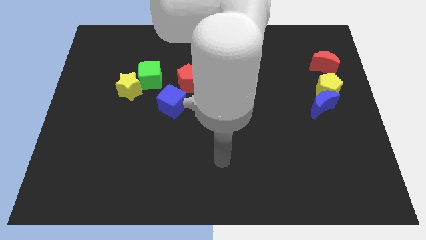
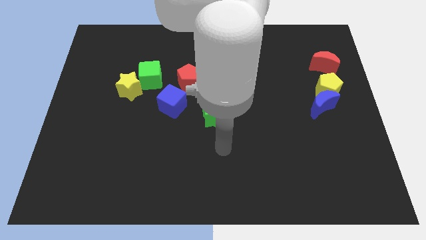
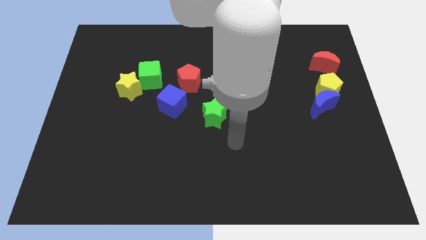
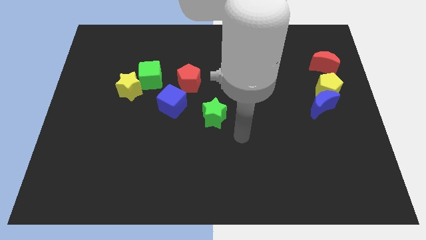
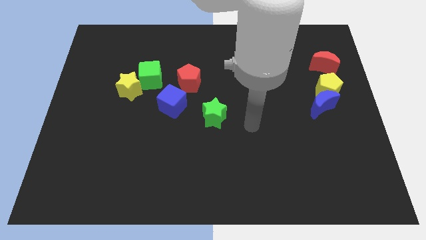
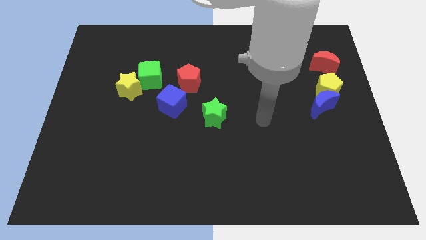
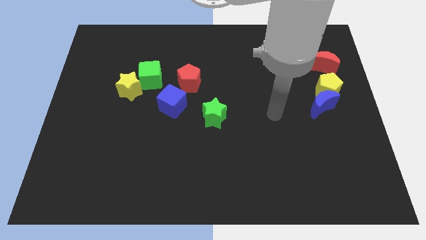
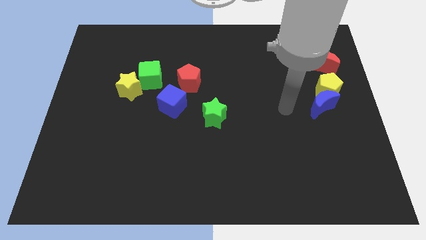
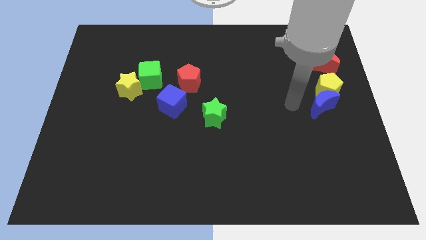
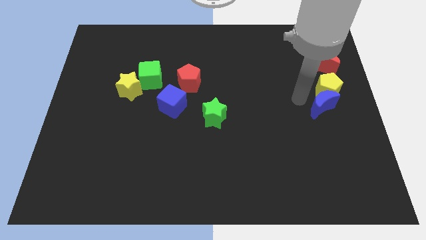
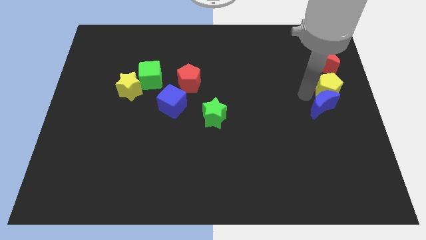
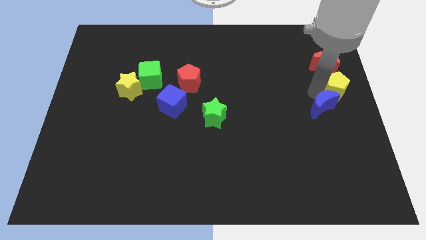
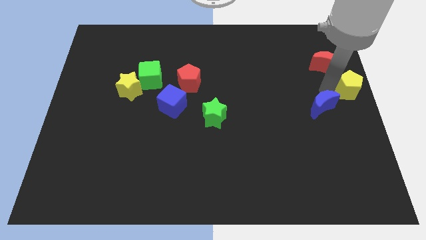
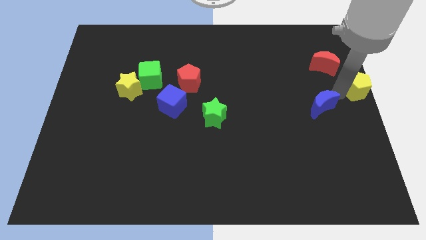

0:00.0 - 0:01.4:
separate the blue moon from the yellow pentagon

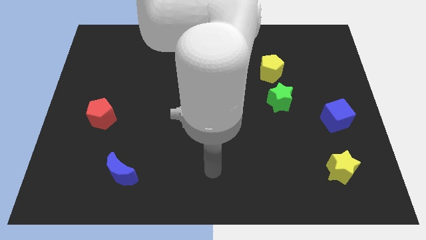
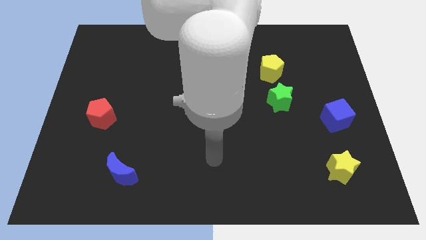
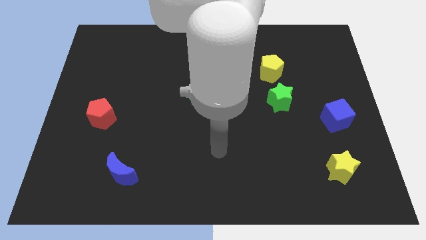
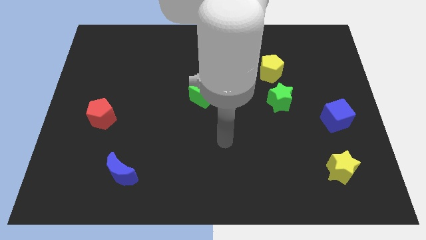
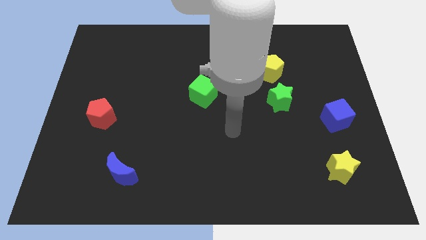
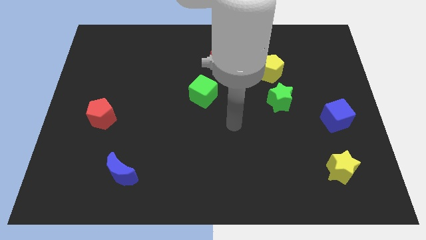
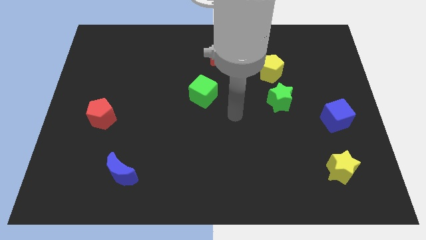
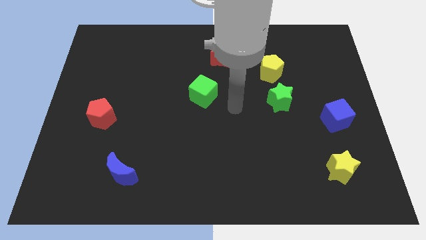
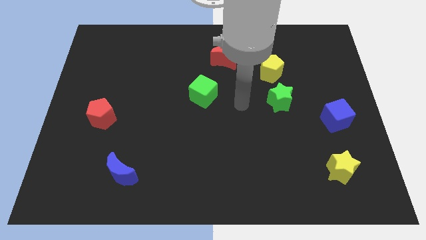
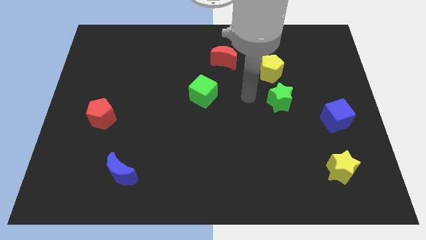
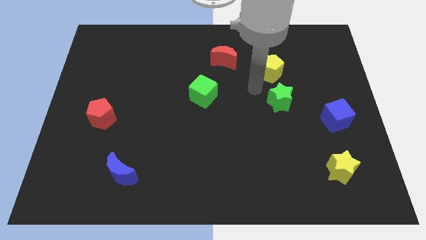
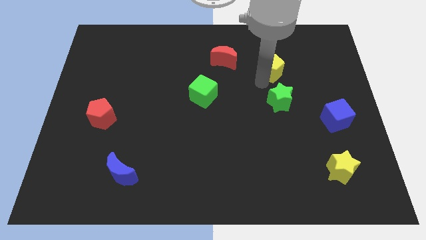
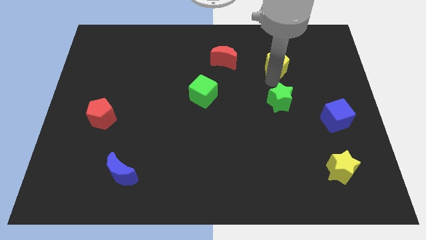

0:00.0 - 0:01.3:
pull the green star apart from the yellow pentagon

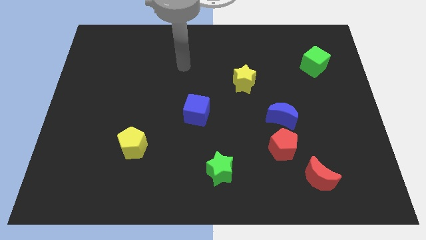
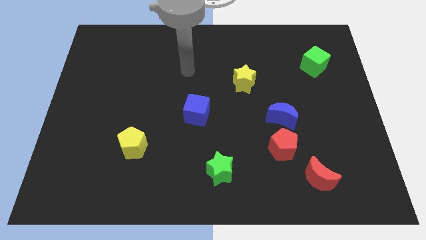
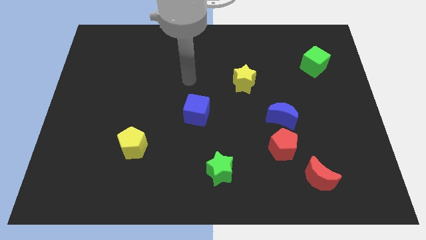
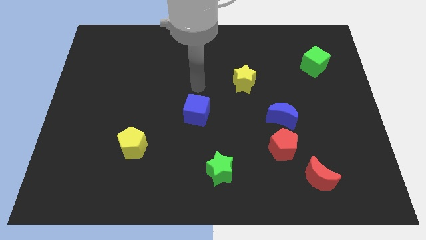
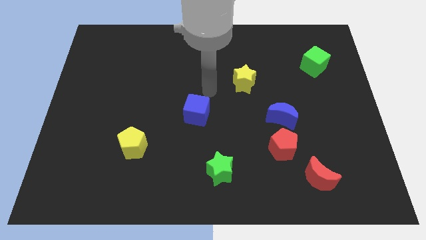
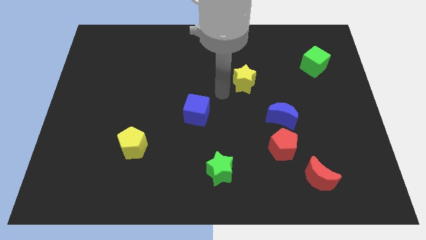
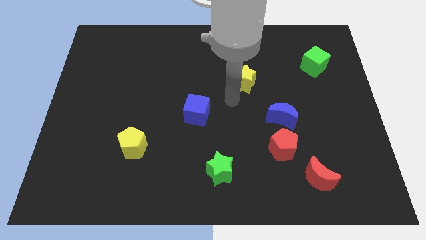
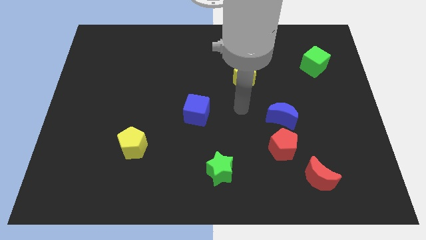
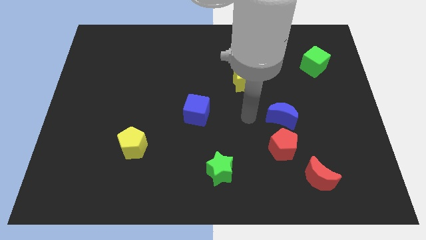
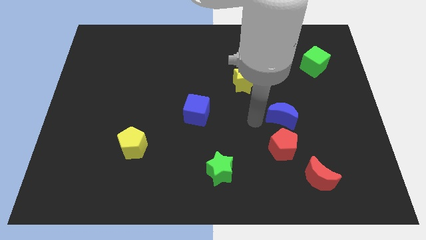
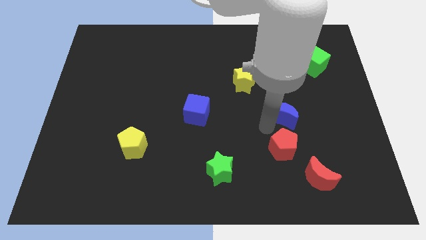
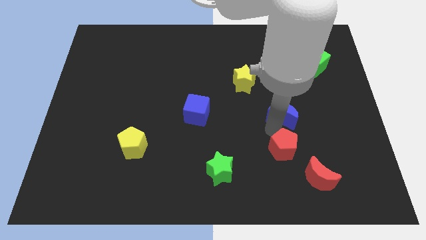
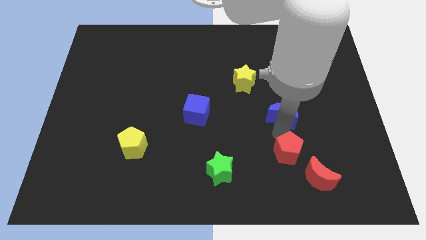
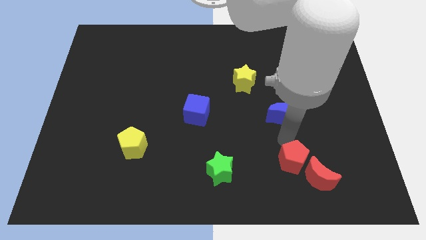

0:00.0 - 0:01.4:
separate the blue moon from the red pentagon

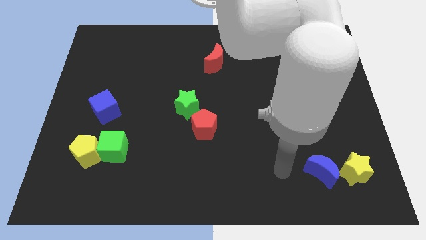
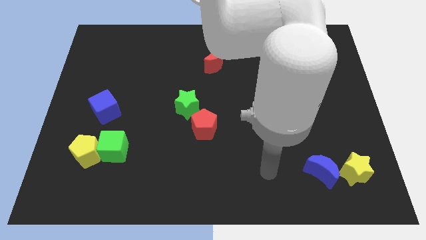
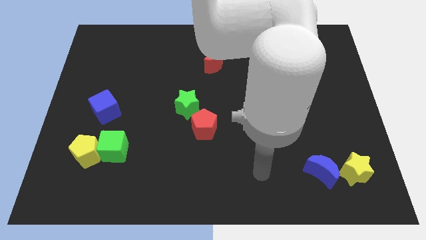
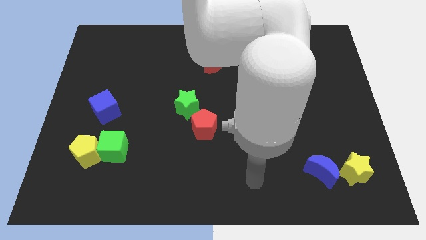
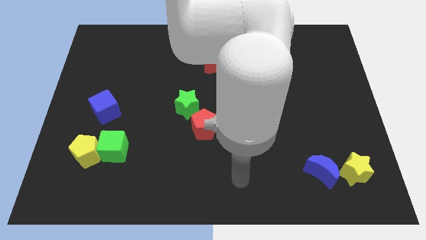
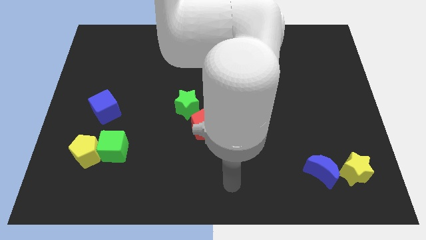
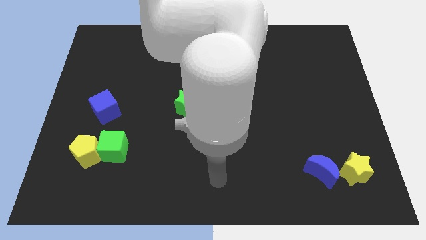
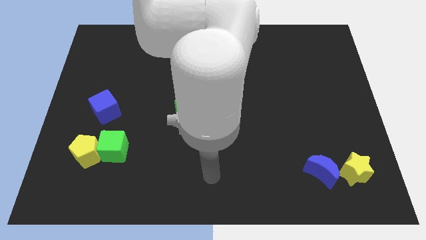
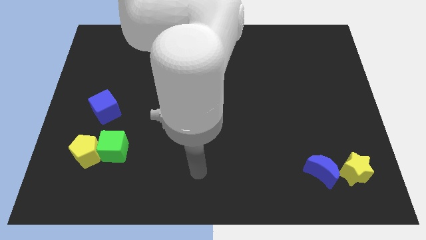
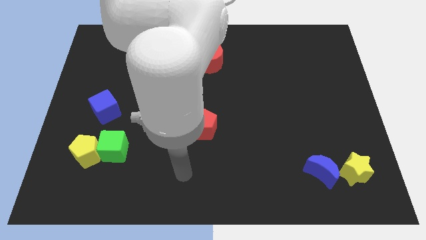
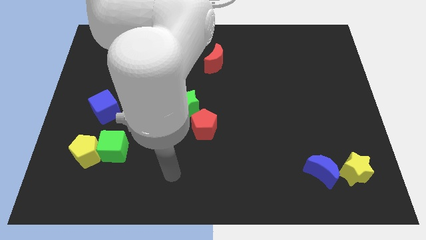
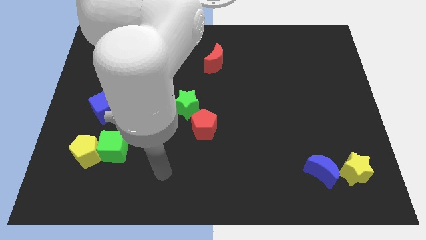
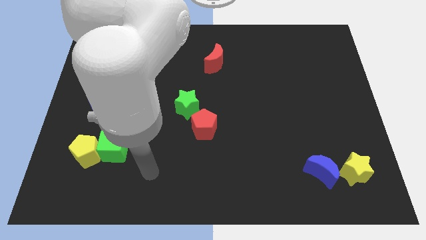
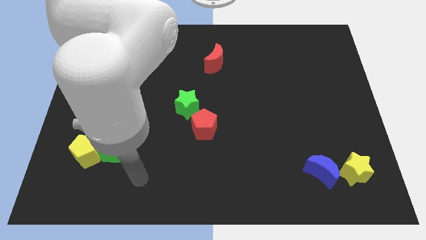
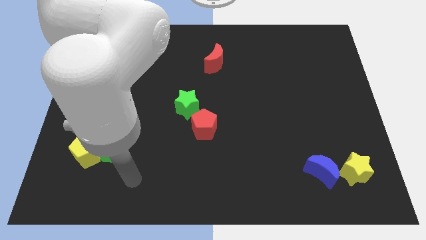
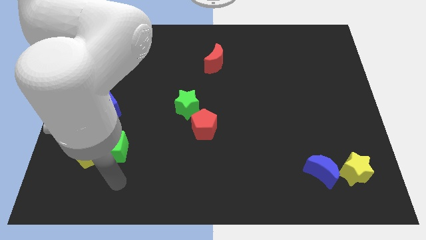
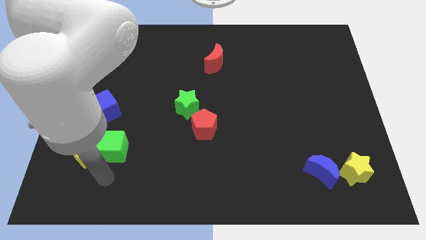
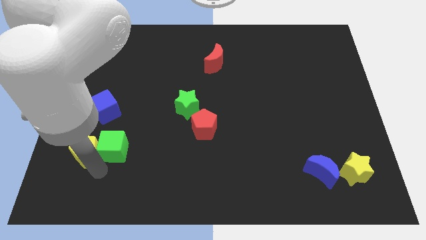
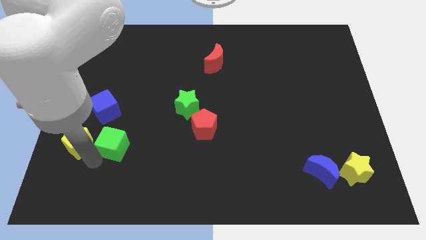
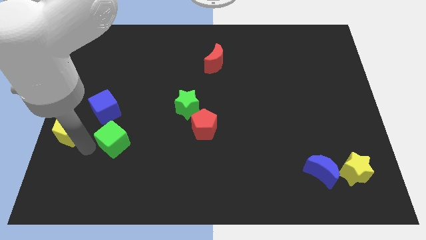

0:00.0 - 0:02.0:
pull the green cube apart from the yellow pentagon

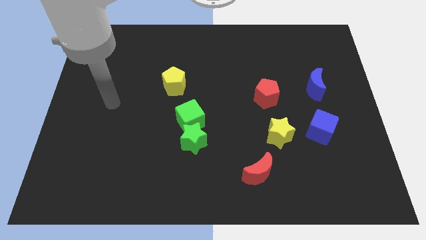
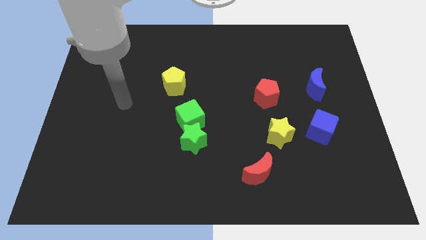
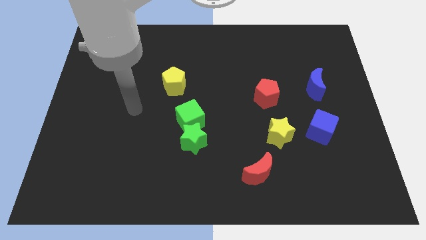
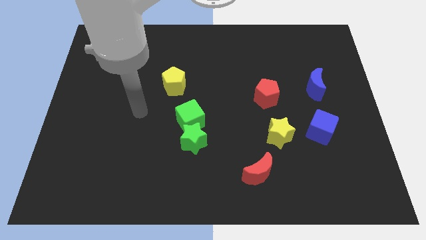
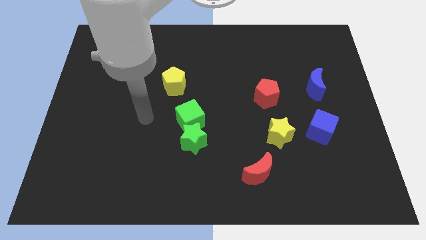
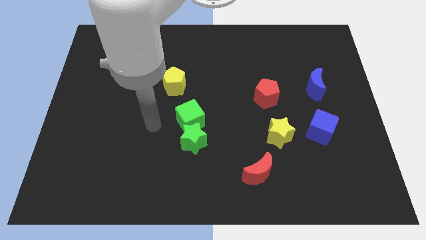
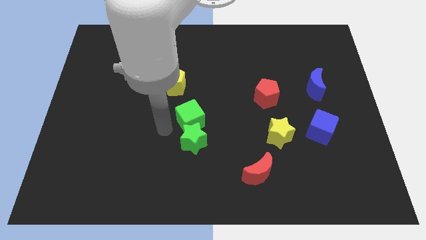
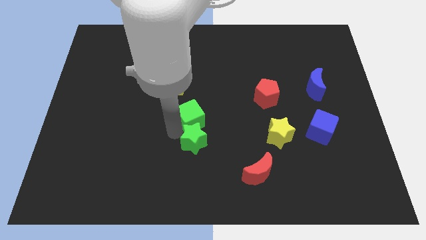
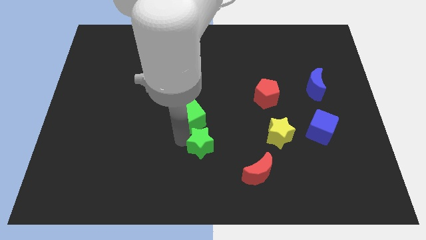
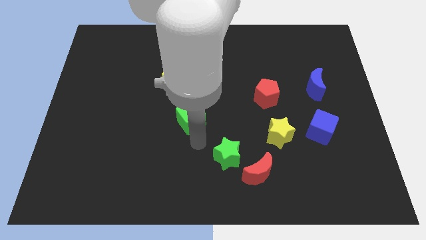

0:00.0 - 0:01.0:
move the green cube away from the green star

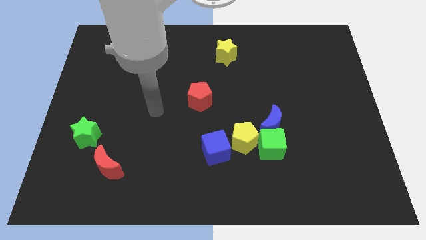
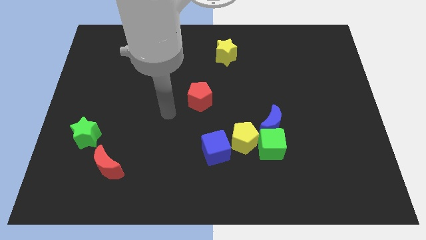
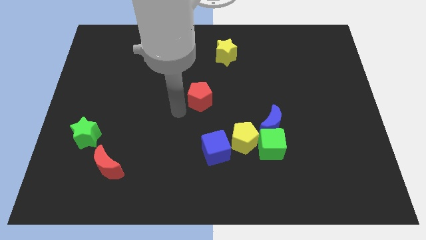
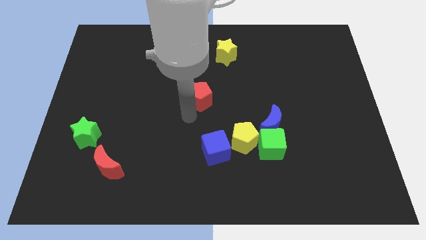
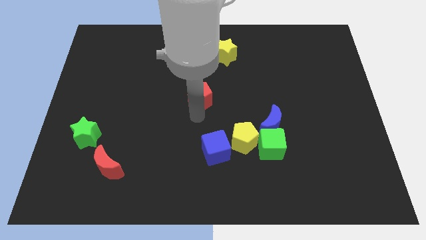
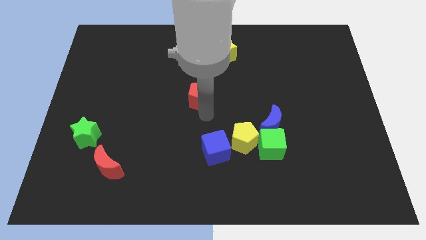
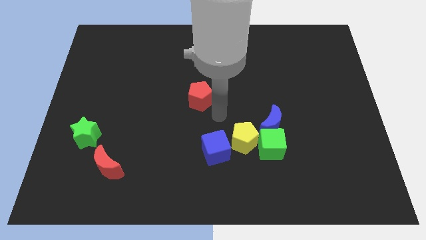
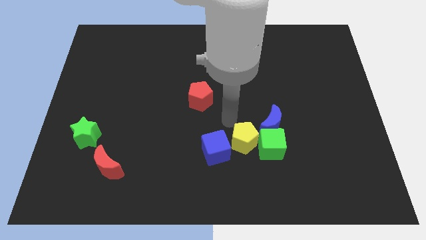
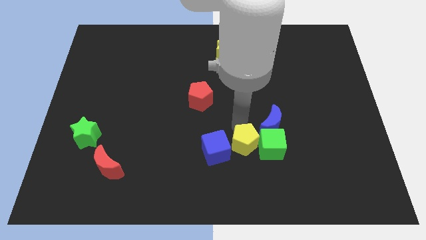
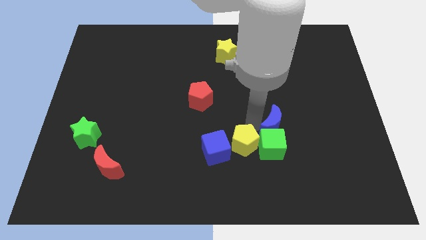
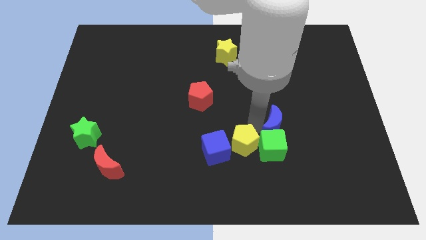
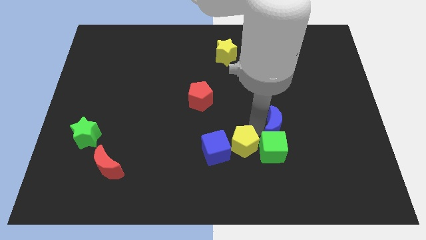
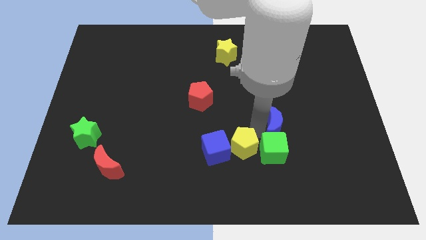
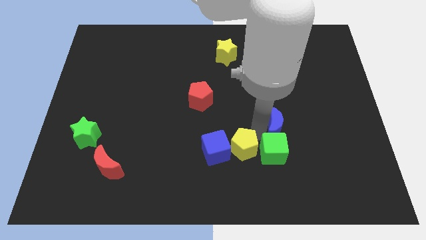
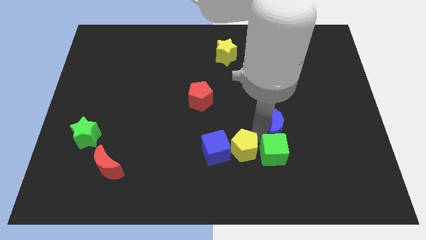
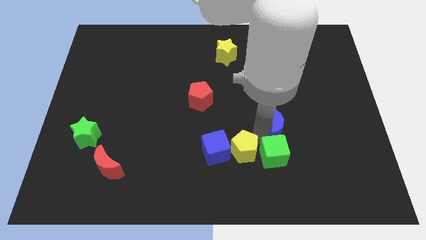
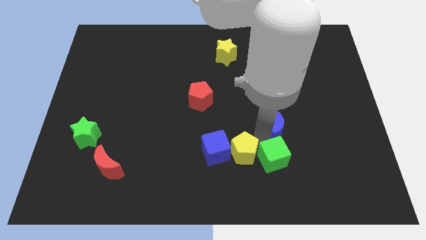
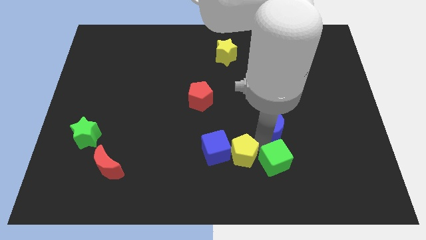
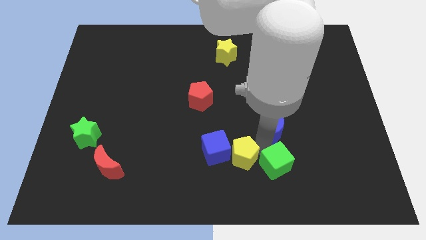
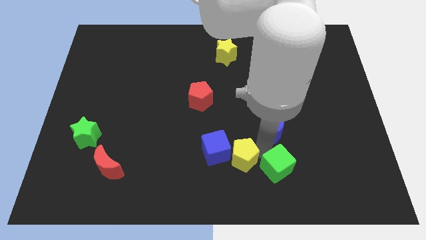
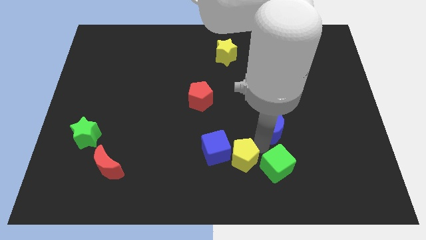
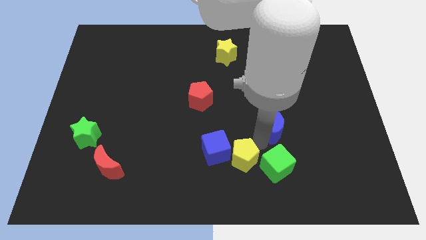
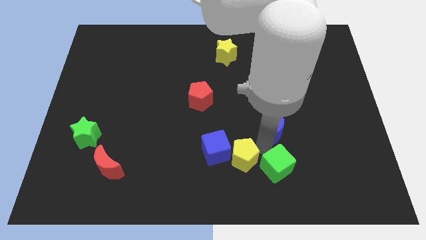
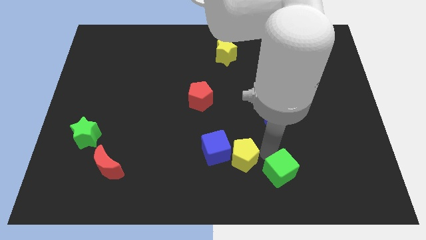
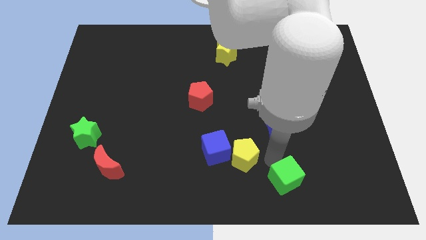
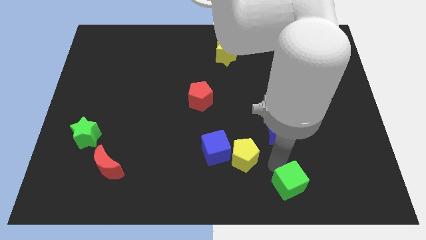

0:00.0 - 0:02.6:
move the green cube away from the blue moon and yellow pentagon
